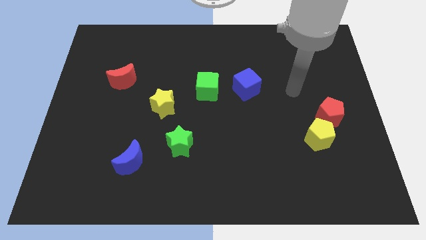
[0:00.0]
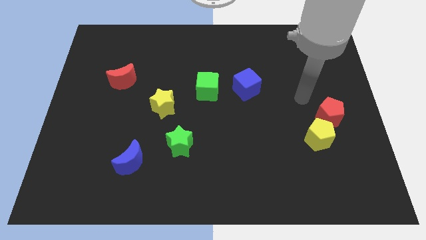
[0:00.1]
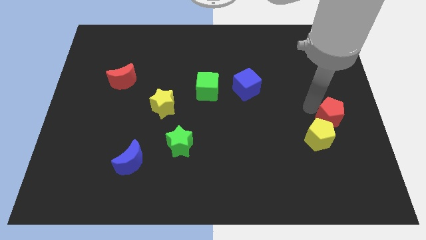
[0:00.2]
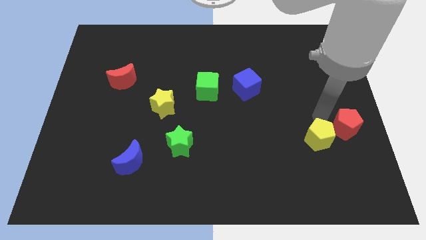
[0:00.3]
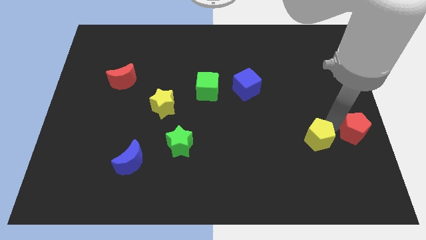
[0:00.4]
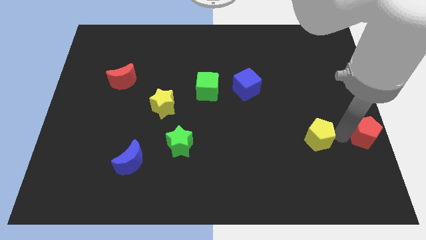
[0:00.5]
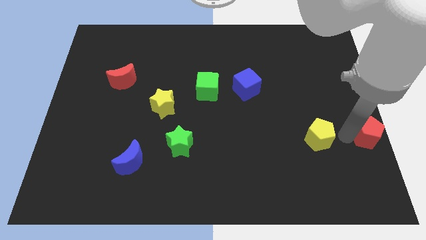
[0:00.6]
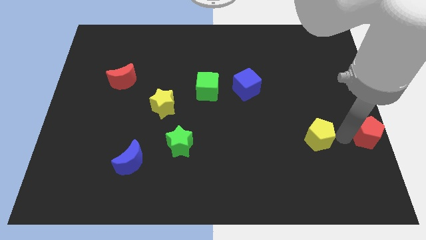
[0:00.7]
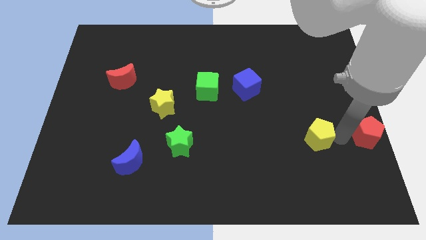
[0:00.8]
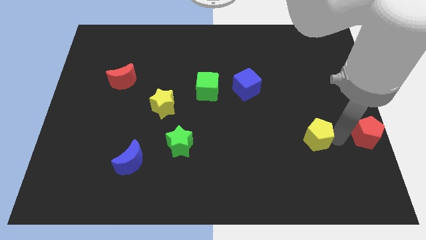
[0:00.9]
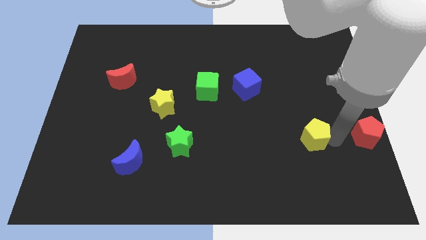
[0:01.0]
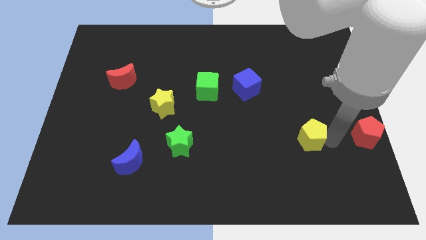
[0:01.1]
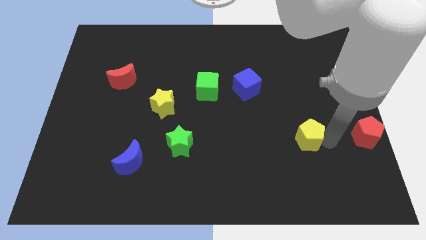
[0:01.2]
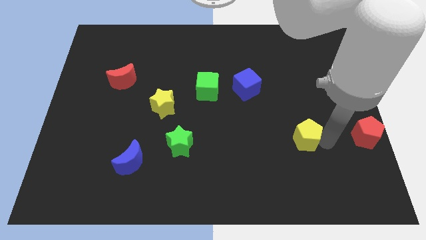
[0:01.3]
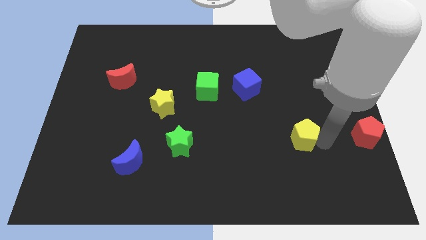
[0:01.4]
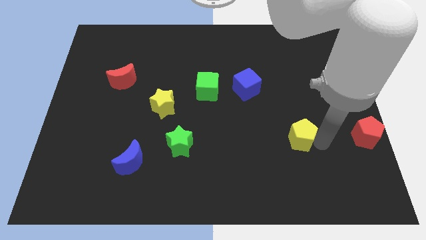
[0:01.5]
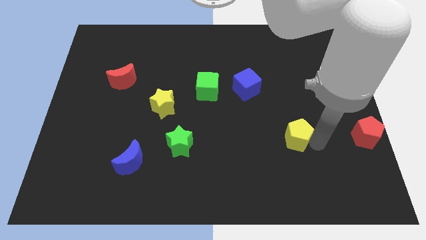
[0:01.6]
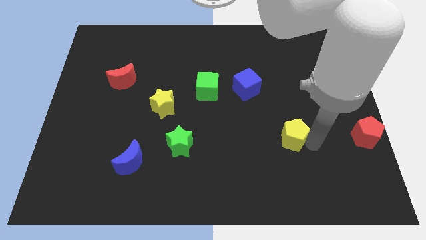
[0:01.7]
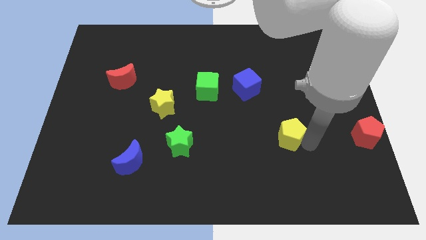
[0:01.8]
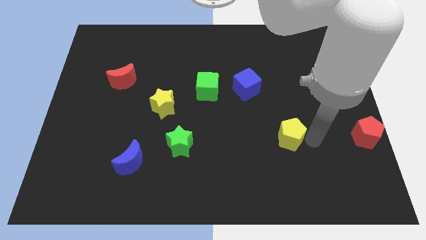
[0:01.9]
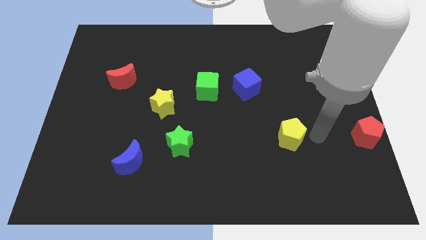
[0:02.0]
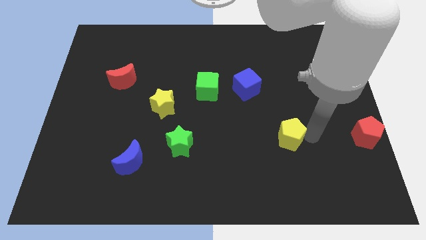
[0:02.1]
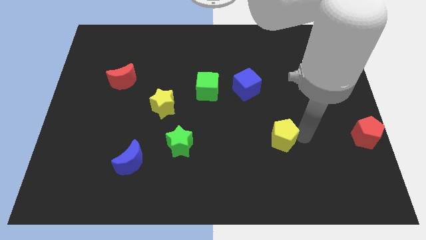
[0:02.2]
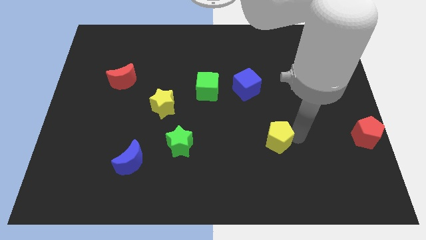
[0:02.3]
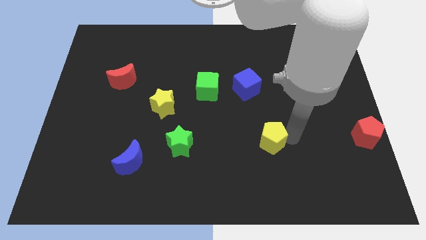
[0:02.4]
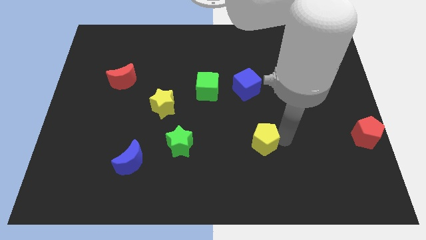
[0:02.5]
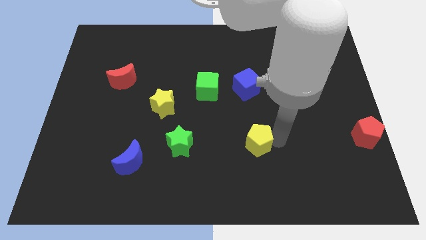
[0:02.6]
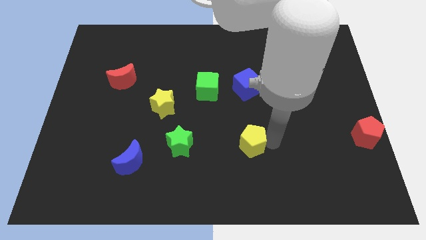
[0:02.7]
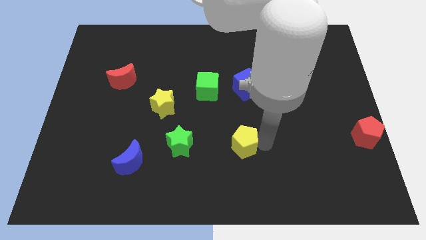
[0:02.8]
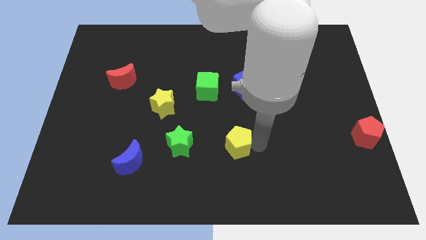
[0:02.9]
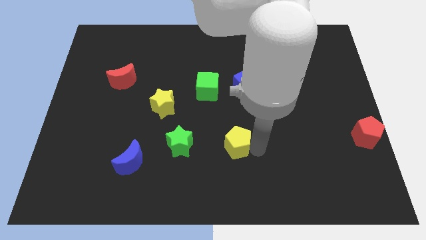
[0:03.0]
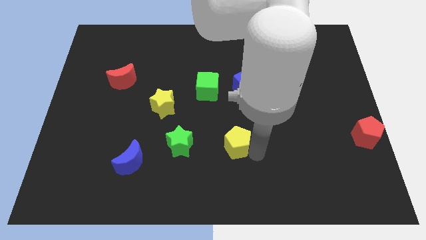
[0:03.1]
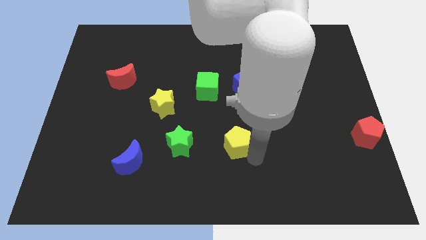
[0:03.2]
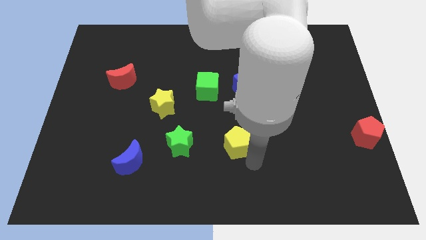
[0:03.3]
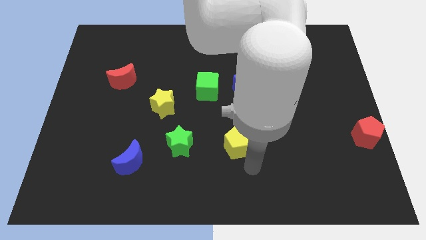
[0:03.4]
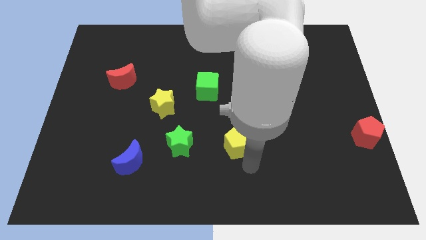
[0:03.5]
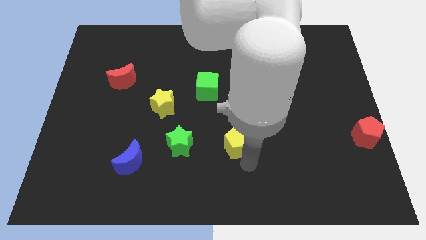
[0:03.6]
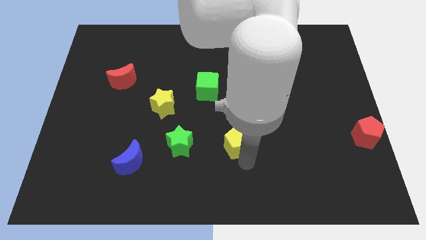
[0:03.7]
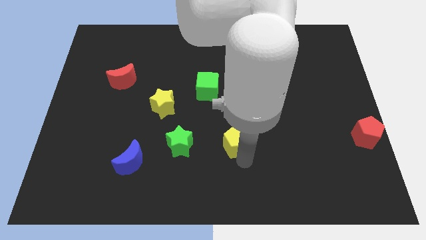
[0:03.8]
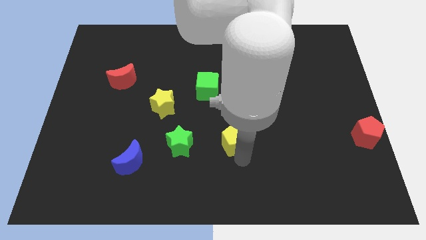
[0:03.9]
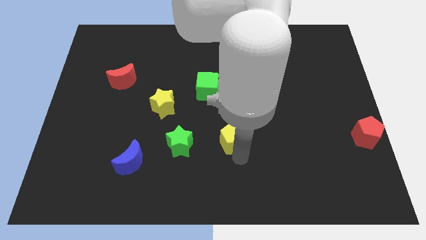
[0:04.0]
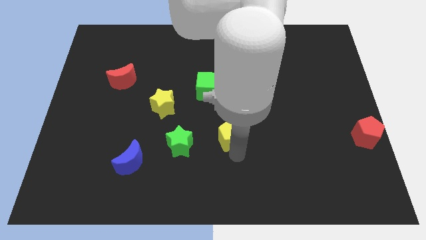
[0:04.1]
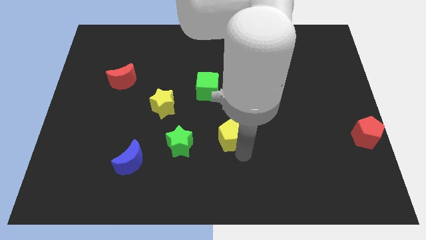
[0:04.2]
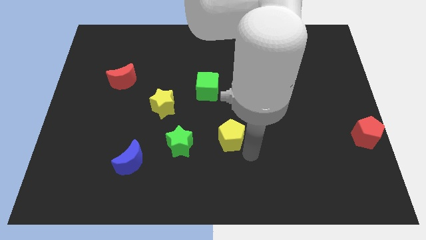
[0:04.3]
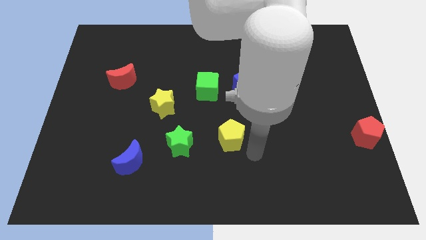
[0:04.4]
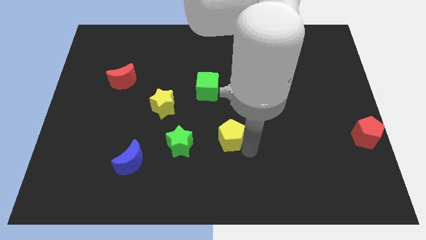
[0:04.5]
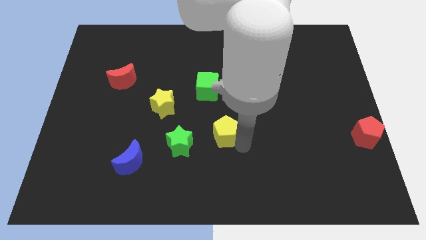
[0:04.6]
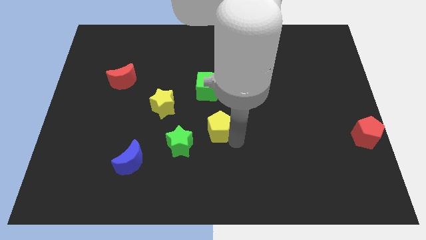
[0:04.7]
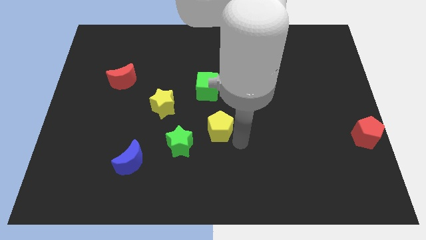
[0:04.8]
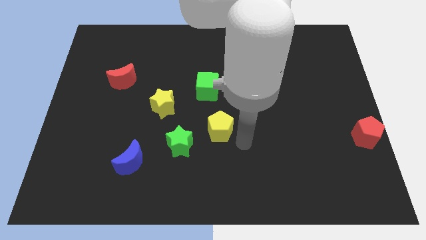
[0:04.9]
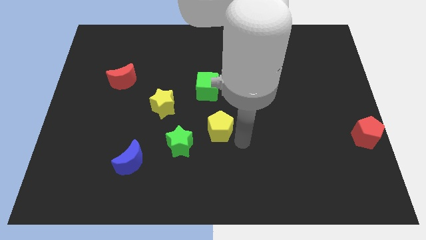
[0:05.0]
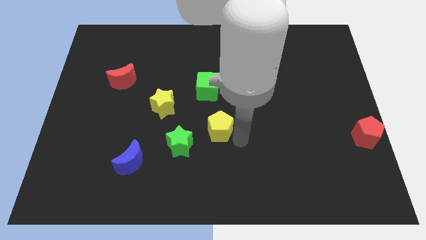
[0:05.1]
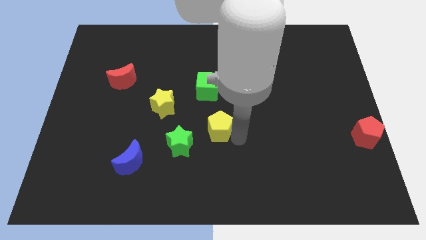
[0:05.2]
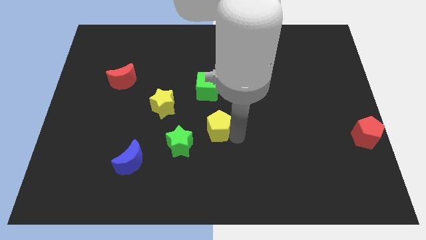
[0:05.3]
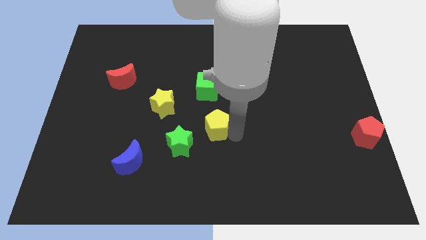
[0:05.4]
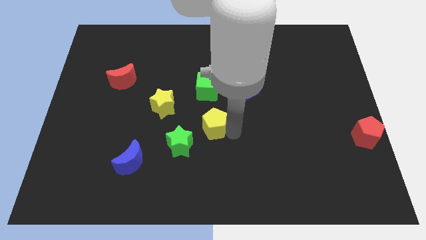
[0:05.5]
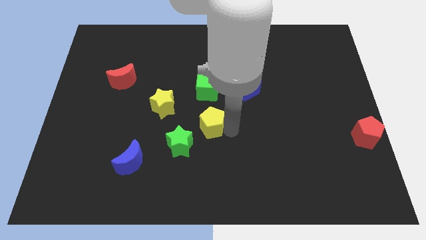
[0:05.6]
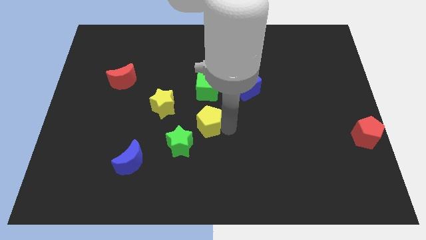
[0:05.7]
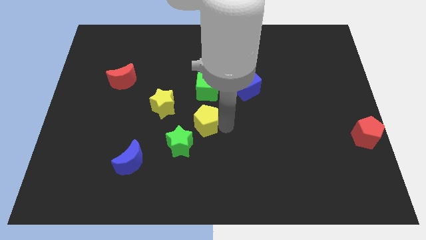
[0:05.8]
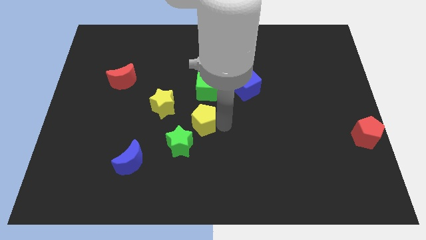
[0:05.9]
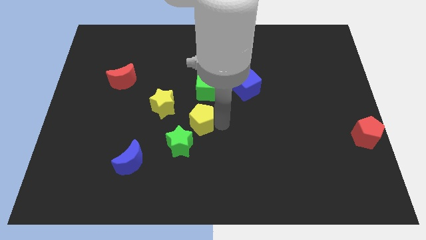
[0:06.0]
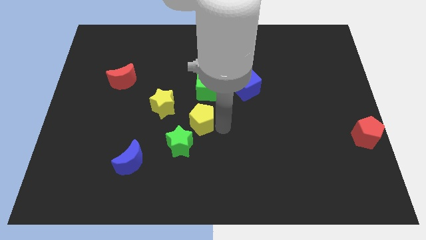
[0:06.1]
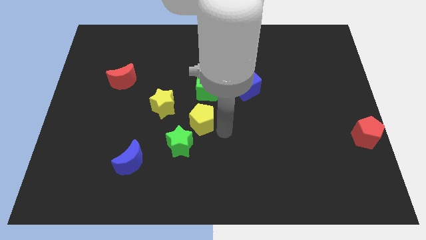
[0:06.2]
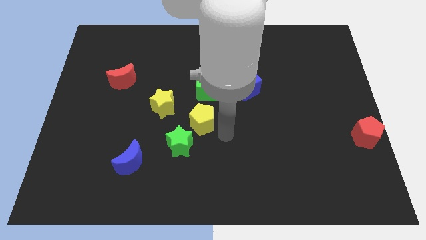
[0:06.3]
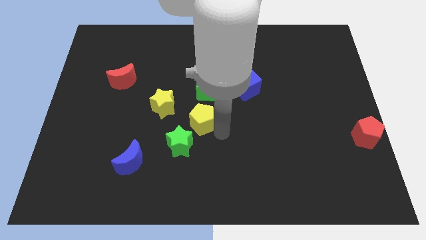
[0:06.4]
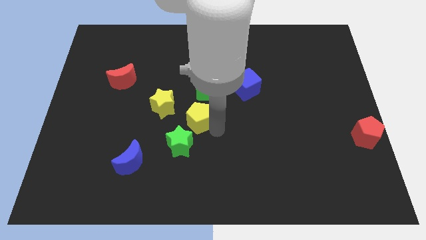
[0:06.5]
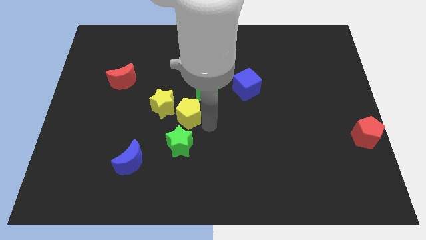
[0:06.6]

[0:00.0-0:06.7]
slide the yellow pentagon close to the yellow star

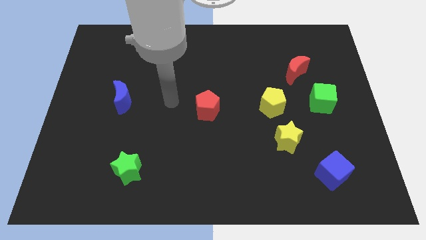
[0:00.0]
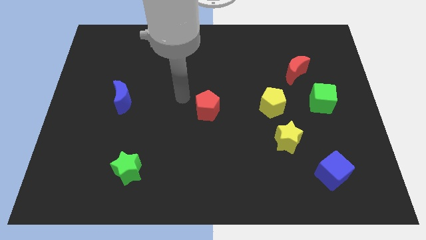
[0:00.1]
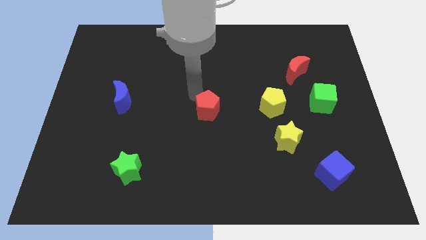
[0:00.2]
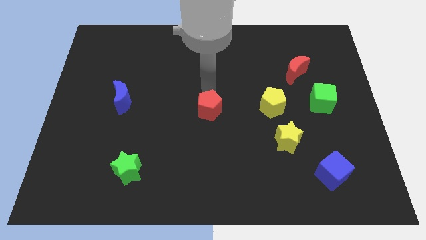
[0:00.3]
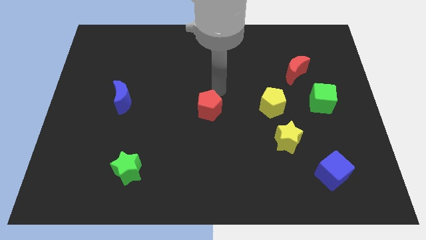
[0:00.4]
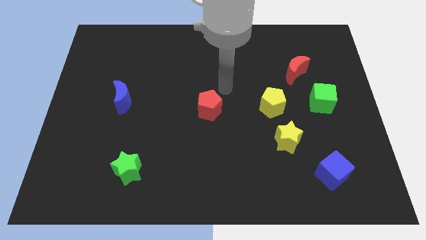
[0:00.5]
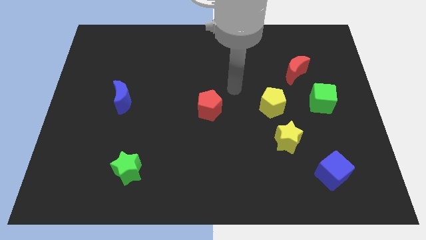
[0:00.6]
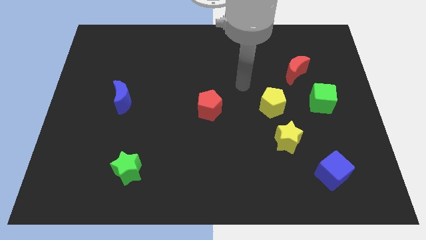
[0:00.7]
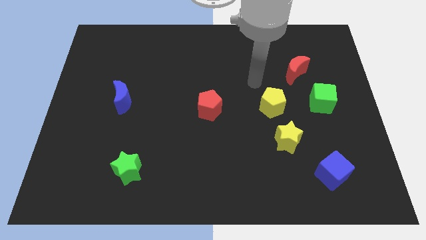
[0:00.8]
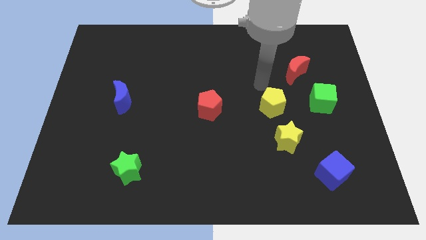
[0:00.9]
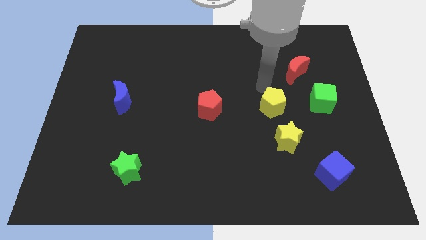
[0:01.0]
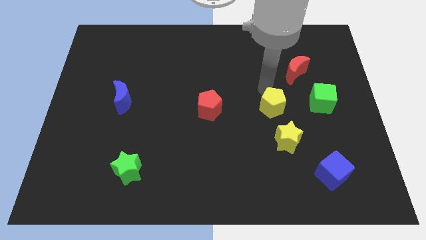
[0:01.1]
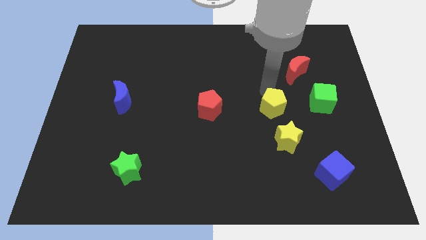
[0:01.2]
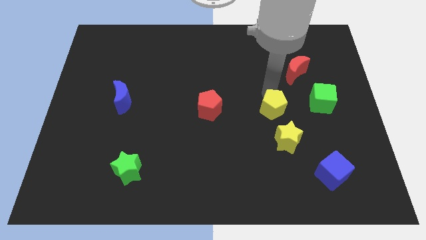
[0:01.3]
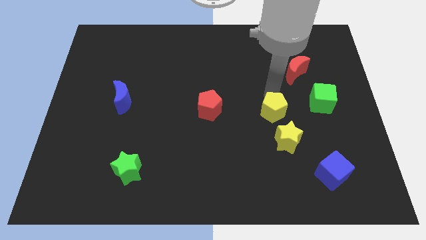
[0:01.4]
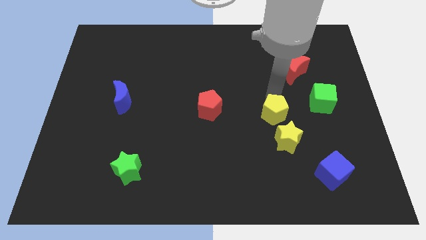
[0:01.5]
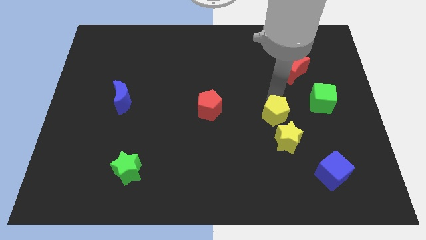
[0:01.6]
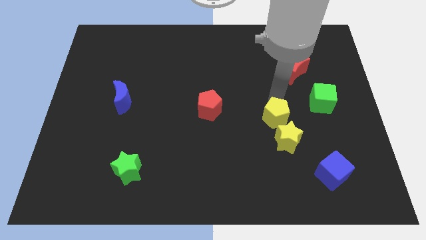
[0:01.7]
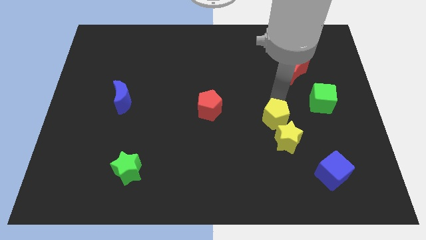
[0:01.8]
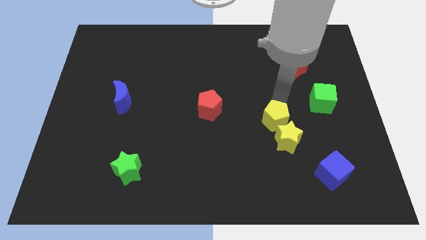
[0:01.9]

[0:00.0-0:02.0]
move the yellow pentagon towards the yellow star
